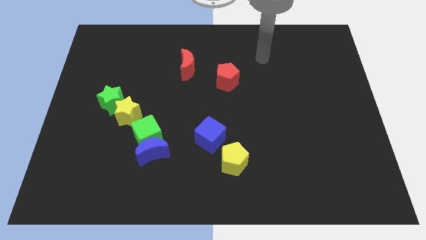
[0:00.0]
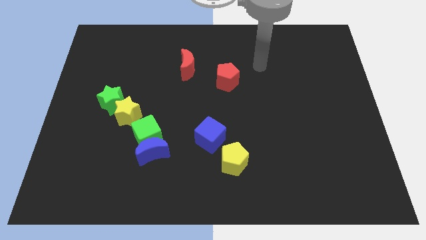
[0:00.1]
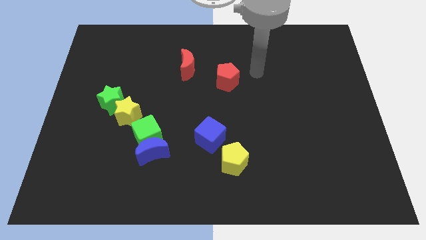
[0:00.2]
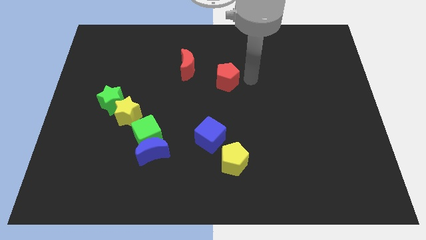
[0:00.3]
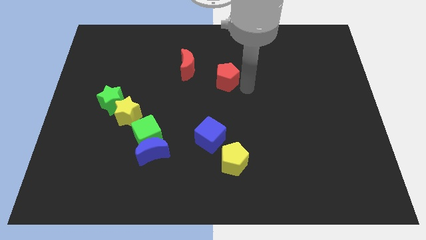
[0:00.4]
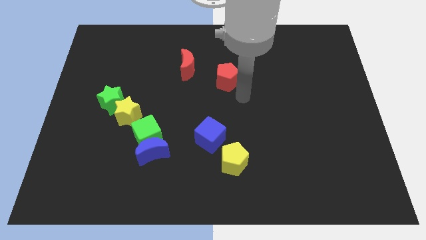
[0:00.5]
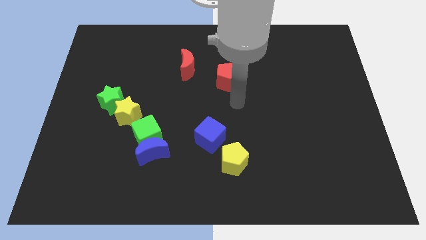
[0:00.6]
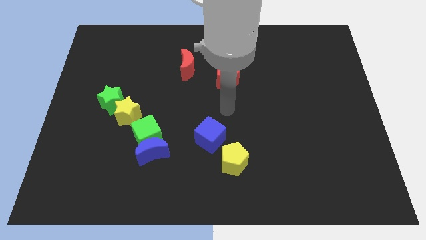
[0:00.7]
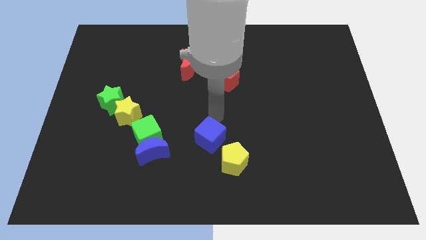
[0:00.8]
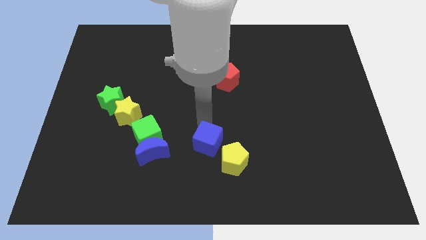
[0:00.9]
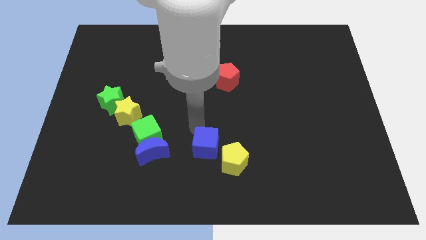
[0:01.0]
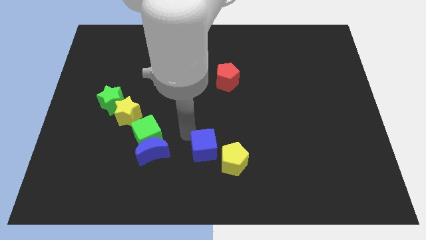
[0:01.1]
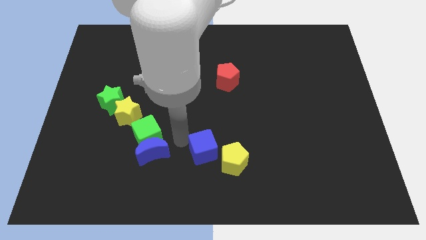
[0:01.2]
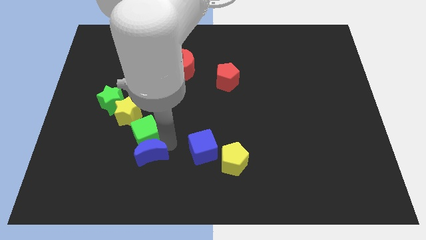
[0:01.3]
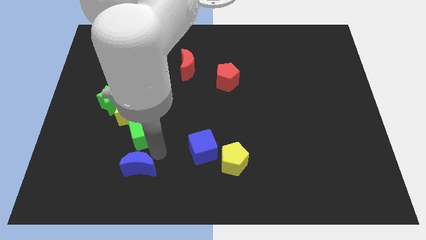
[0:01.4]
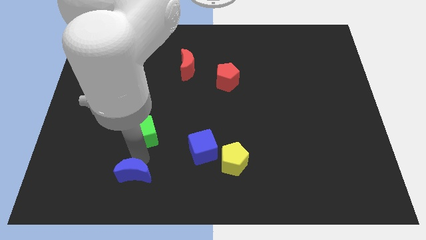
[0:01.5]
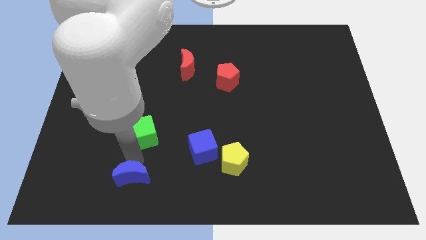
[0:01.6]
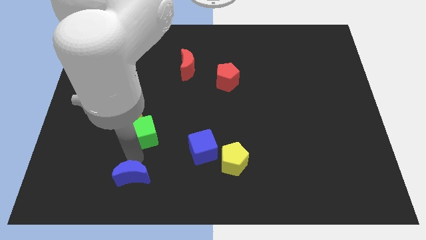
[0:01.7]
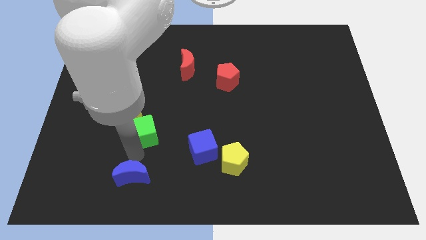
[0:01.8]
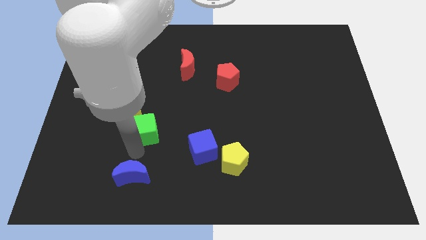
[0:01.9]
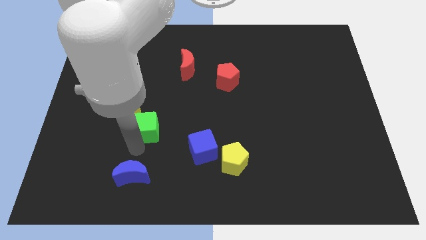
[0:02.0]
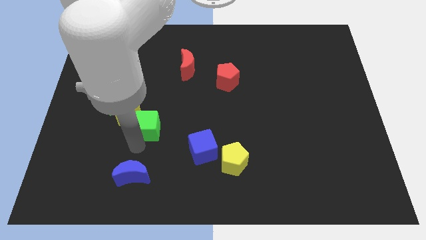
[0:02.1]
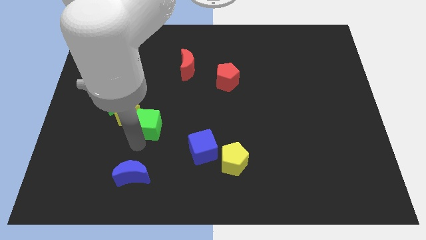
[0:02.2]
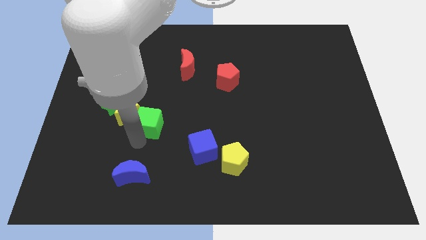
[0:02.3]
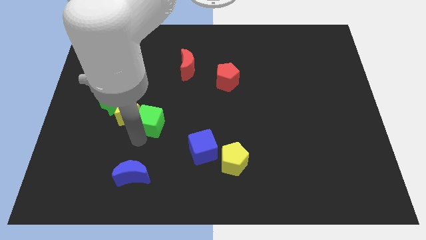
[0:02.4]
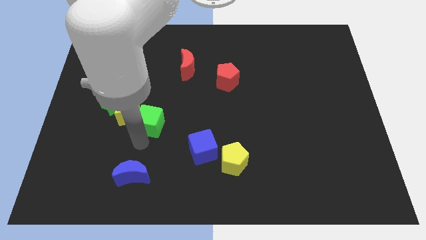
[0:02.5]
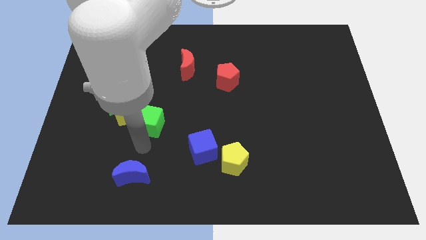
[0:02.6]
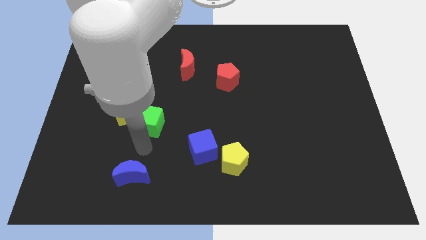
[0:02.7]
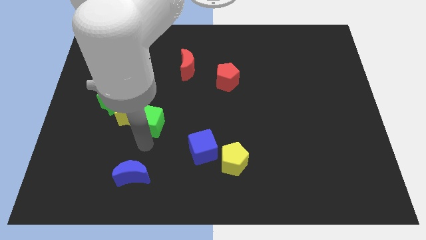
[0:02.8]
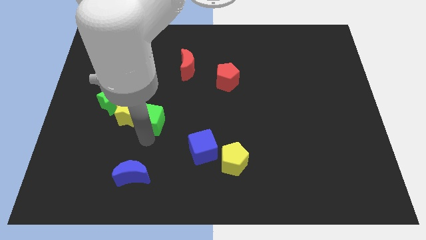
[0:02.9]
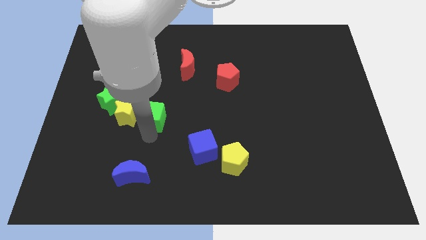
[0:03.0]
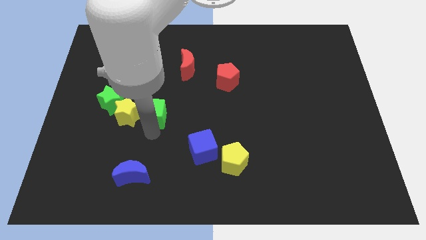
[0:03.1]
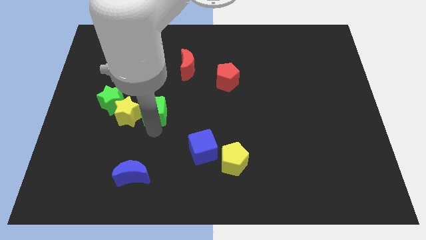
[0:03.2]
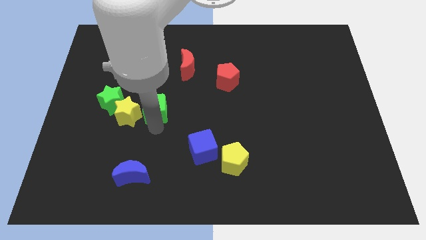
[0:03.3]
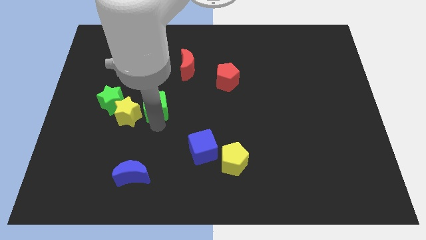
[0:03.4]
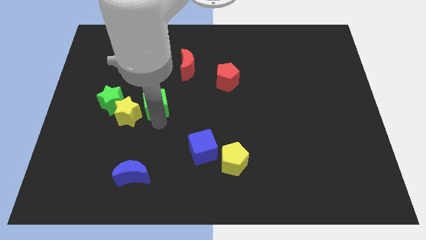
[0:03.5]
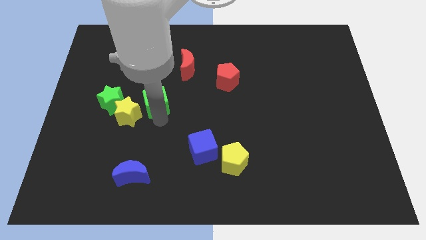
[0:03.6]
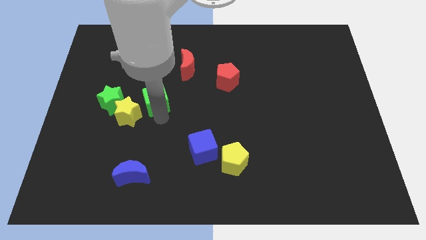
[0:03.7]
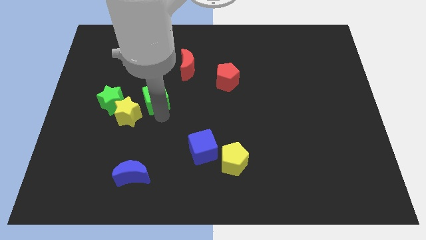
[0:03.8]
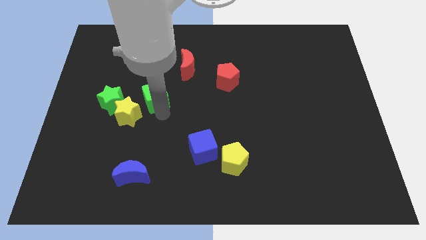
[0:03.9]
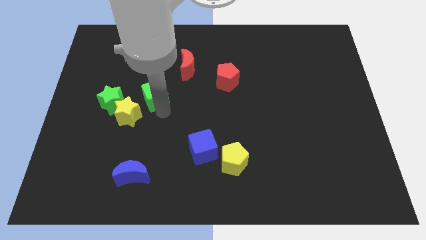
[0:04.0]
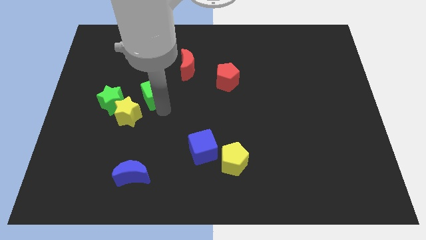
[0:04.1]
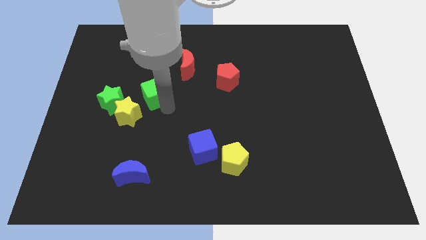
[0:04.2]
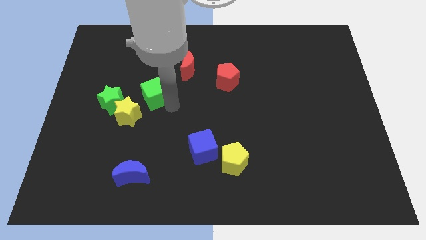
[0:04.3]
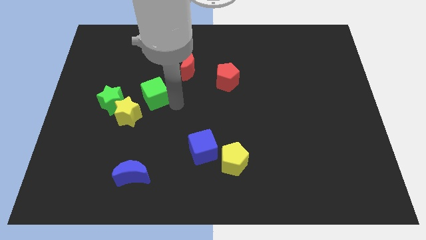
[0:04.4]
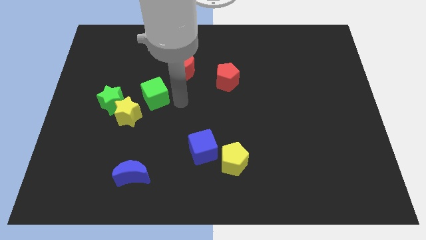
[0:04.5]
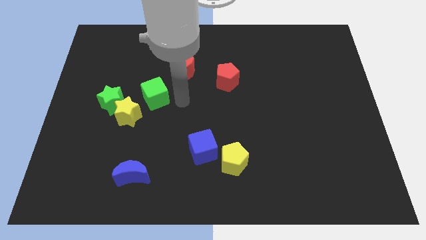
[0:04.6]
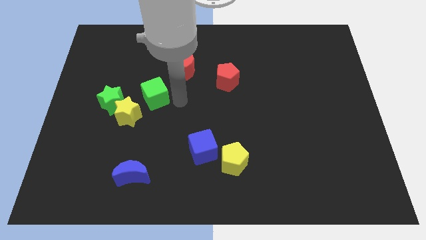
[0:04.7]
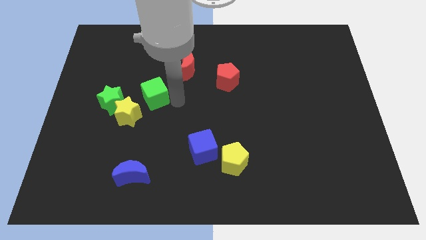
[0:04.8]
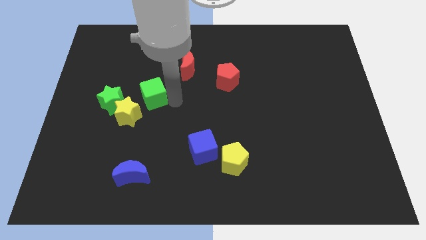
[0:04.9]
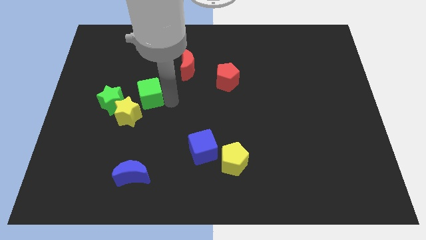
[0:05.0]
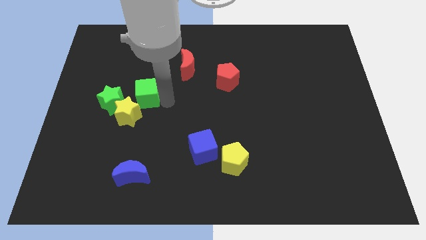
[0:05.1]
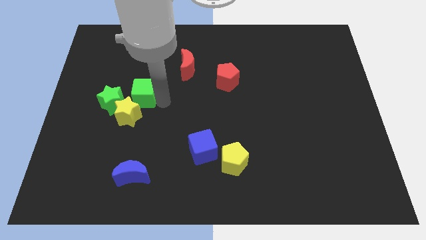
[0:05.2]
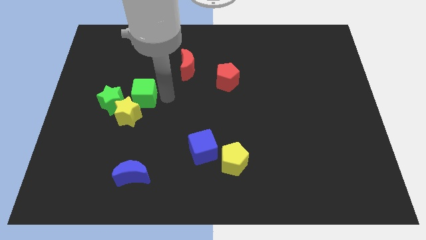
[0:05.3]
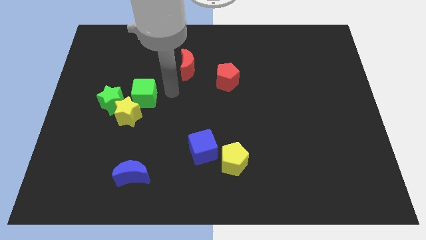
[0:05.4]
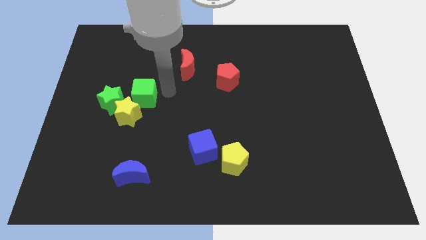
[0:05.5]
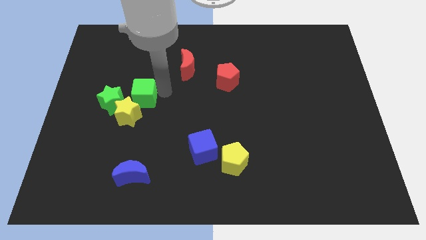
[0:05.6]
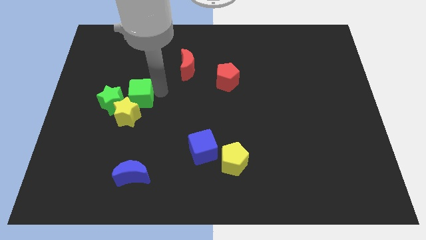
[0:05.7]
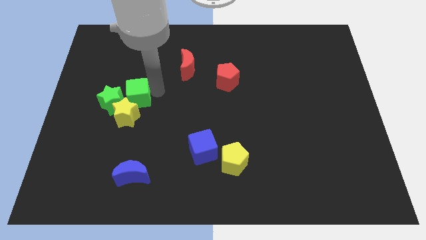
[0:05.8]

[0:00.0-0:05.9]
move the green cube close to the green star

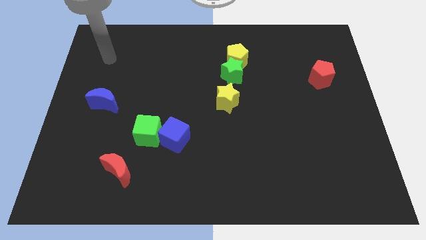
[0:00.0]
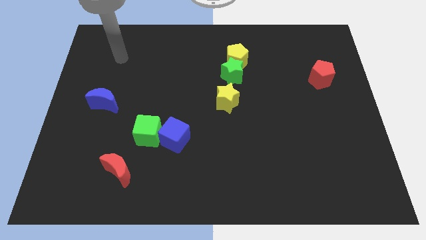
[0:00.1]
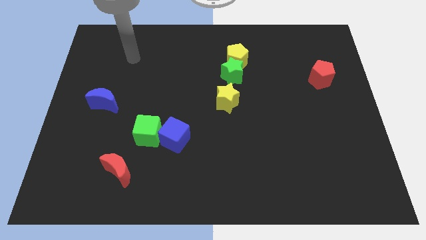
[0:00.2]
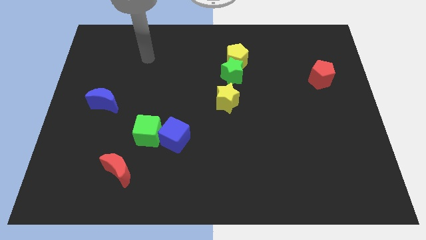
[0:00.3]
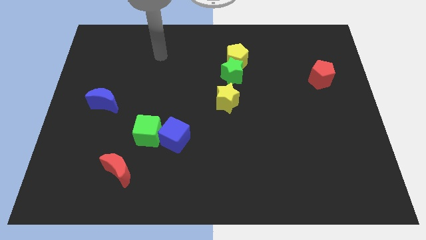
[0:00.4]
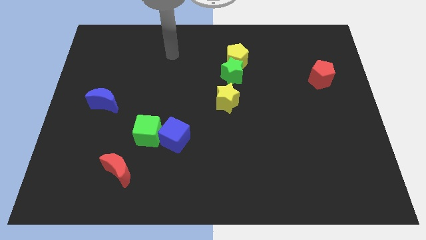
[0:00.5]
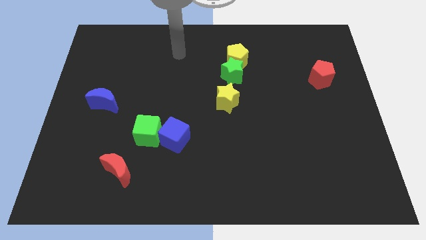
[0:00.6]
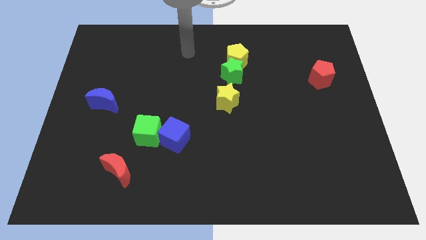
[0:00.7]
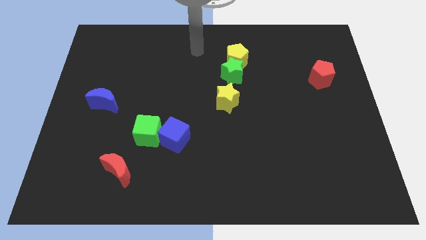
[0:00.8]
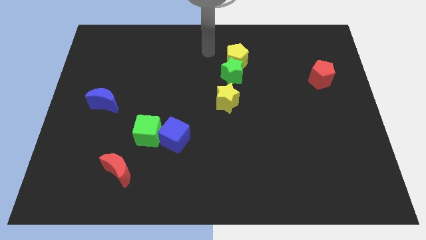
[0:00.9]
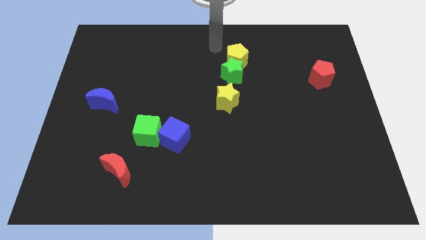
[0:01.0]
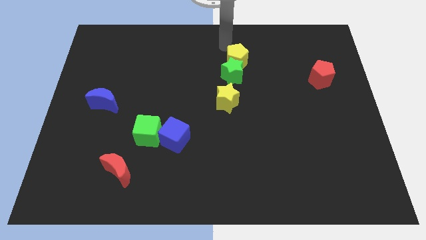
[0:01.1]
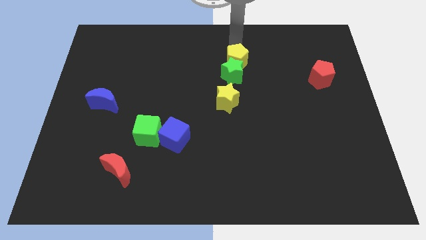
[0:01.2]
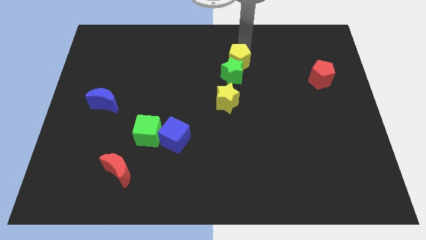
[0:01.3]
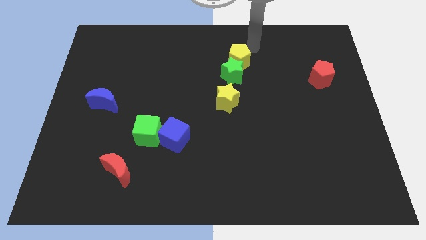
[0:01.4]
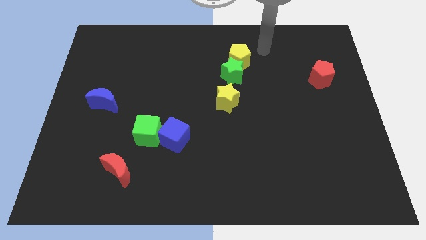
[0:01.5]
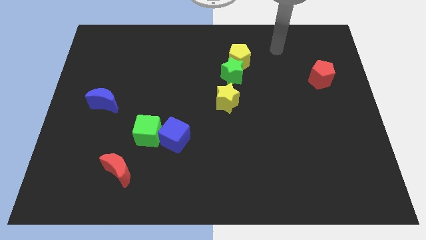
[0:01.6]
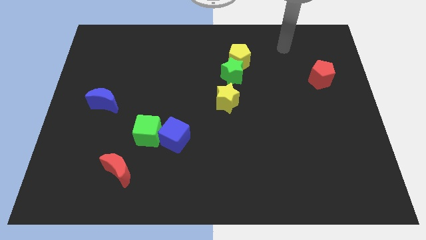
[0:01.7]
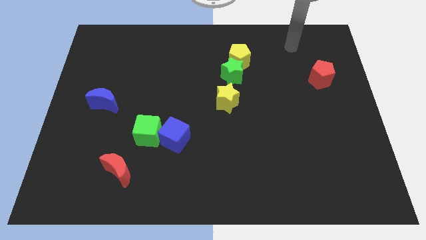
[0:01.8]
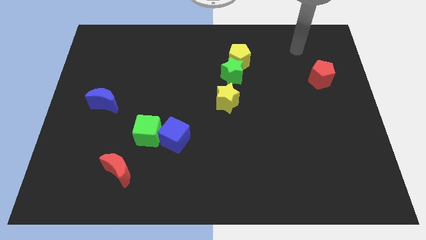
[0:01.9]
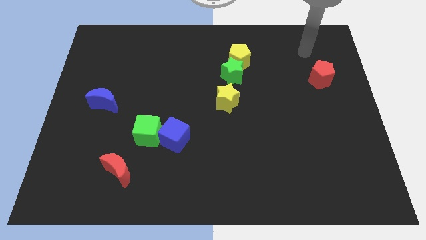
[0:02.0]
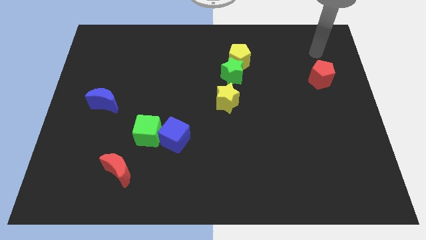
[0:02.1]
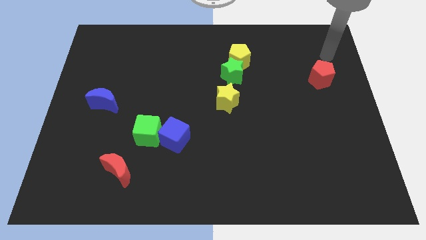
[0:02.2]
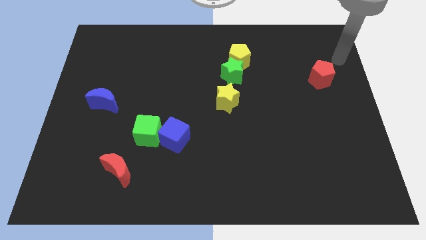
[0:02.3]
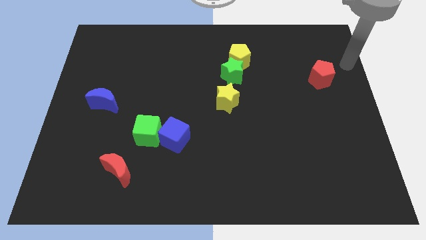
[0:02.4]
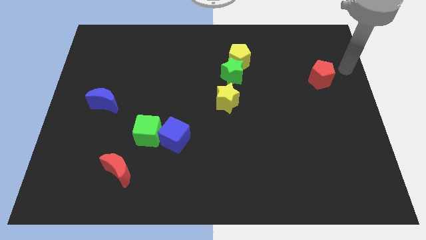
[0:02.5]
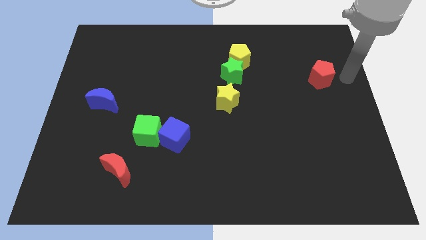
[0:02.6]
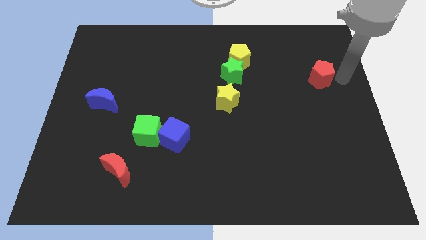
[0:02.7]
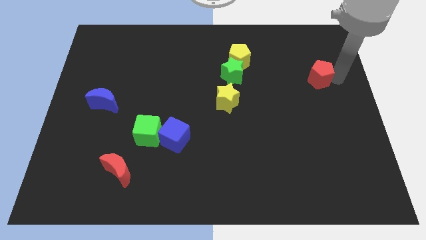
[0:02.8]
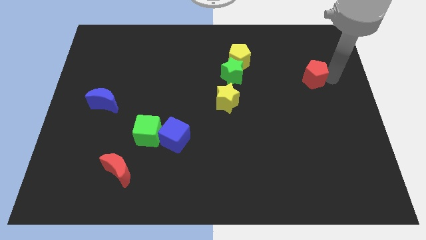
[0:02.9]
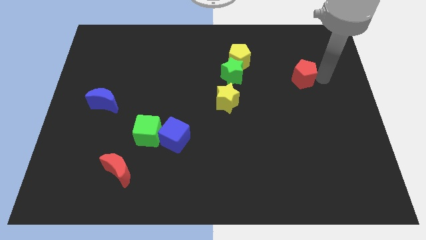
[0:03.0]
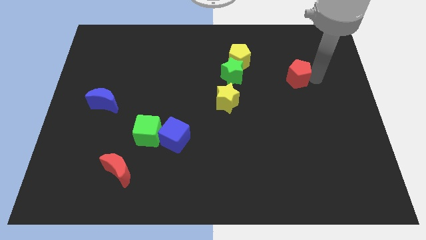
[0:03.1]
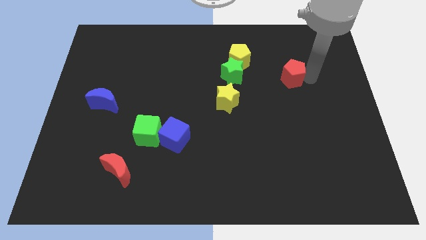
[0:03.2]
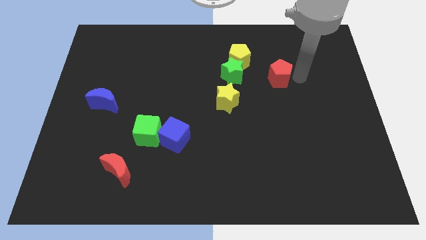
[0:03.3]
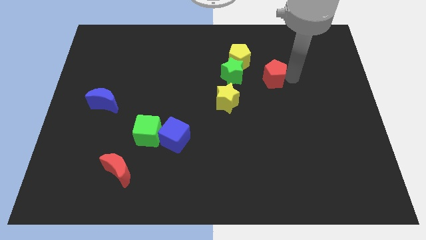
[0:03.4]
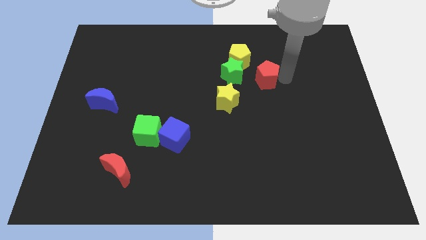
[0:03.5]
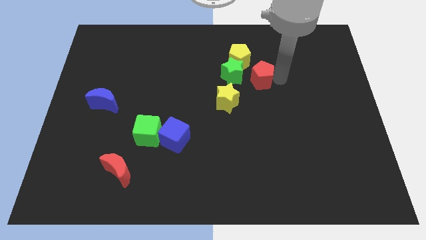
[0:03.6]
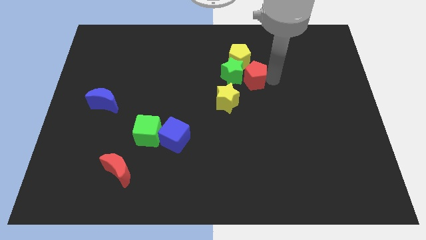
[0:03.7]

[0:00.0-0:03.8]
move the red pentagon close to the green star
